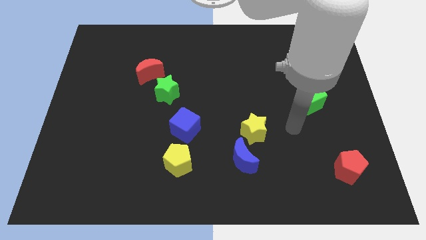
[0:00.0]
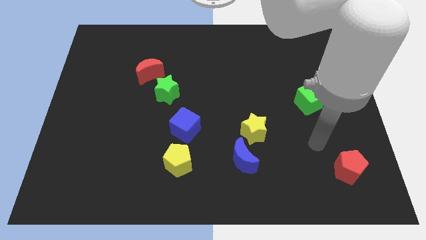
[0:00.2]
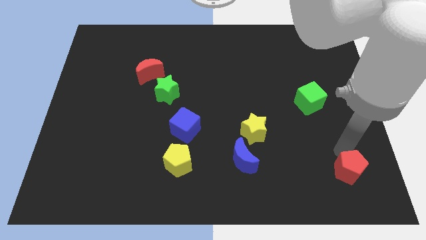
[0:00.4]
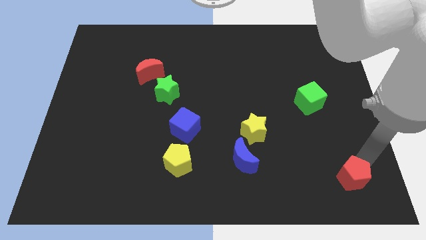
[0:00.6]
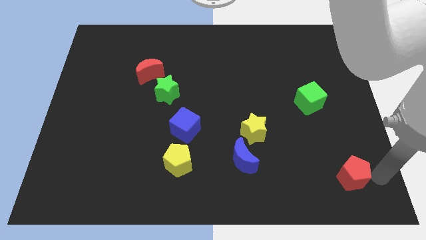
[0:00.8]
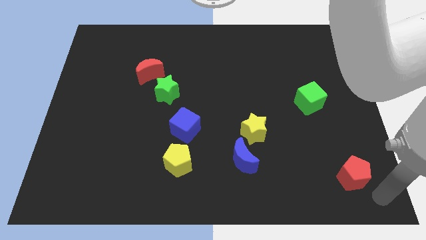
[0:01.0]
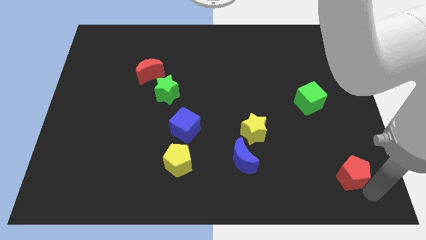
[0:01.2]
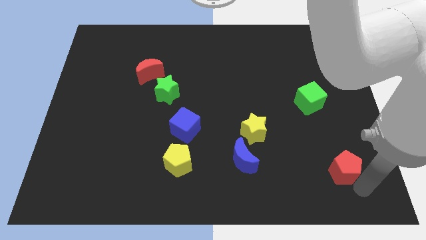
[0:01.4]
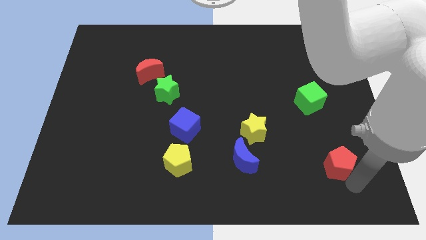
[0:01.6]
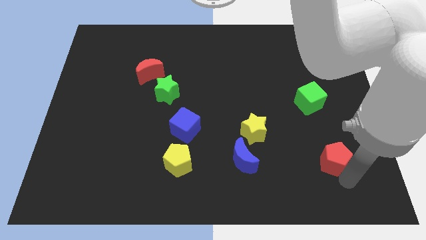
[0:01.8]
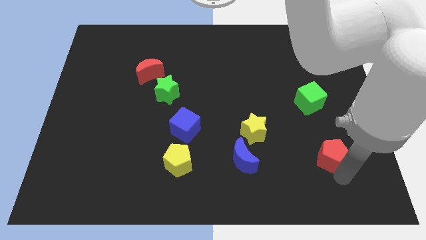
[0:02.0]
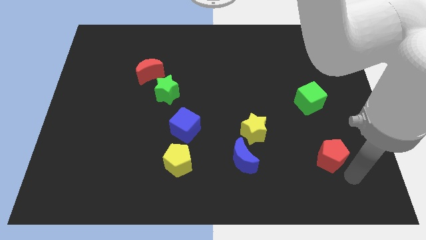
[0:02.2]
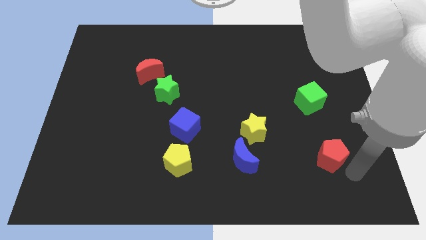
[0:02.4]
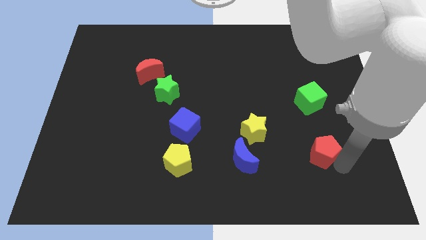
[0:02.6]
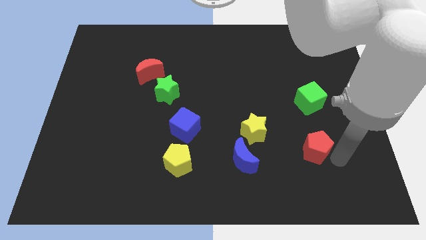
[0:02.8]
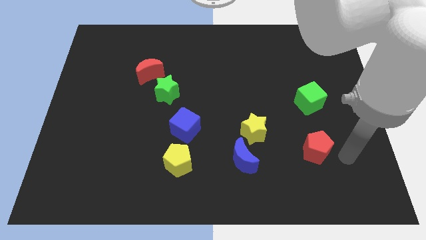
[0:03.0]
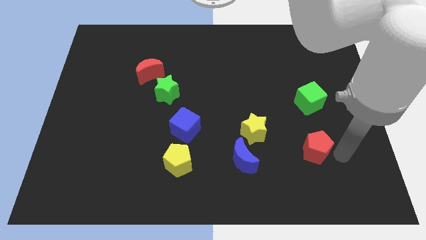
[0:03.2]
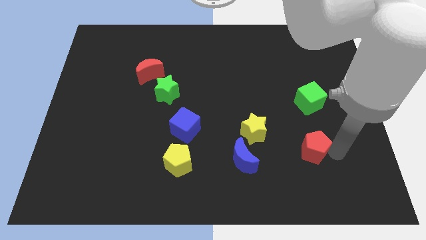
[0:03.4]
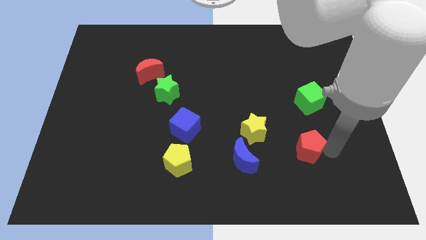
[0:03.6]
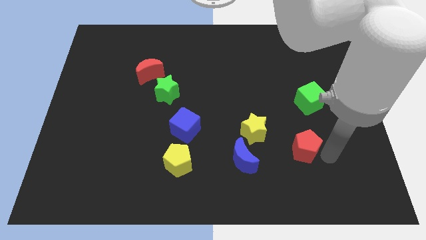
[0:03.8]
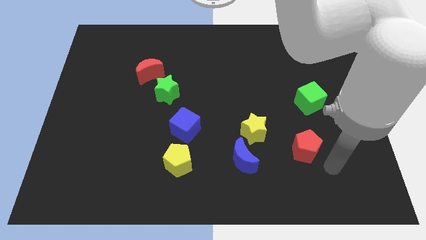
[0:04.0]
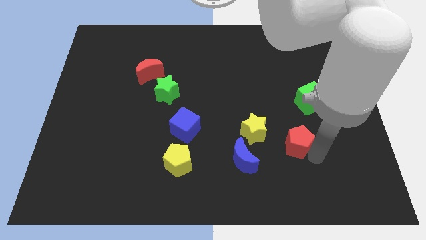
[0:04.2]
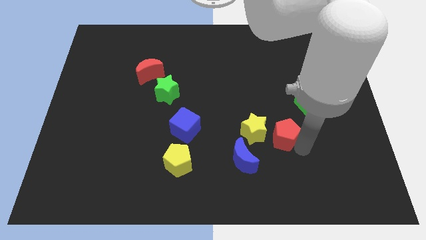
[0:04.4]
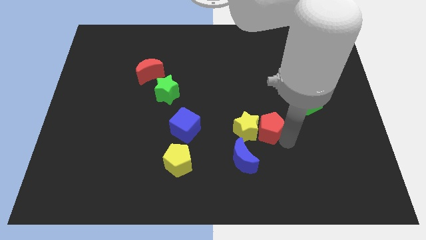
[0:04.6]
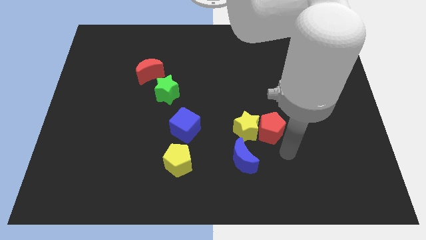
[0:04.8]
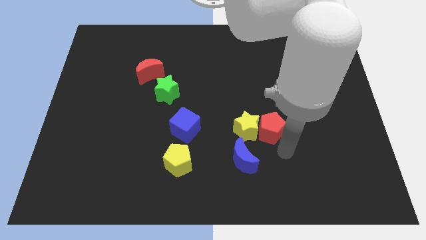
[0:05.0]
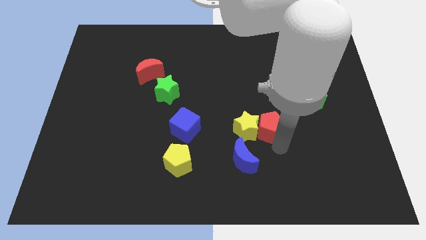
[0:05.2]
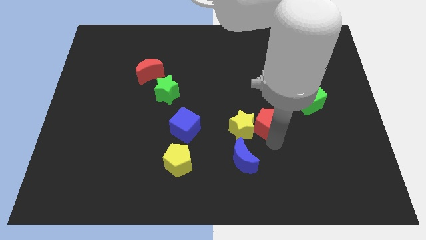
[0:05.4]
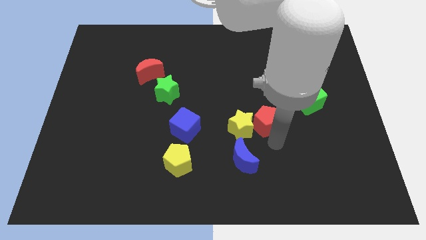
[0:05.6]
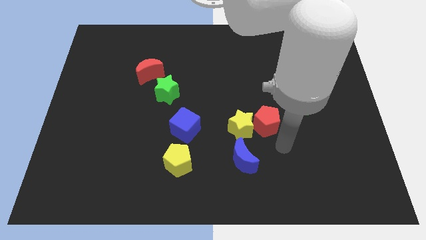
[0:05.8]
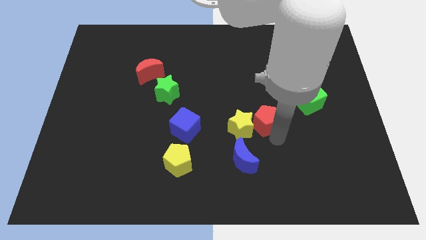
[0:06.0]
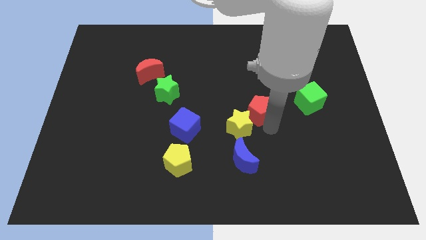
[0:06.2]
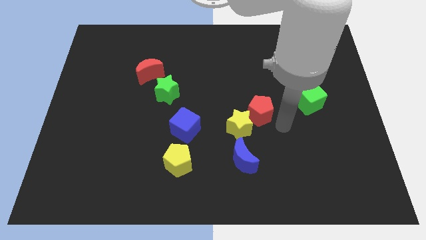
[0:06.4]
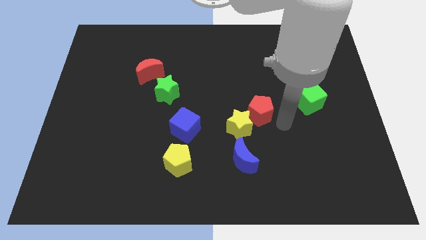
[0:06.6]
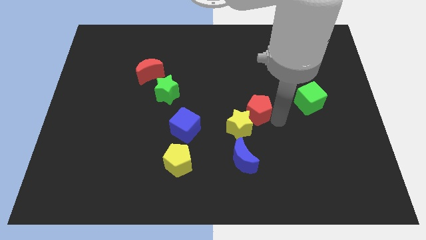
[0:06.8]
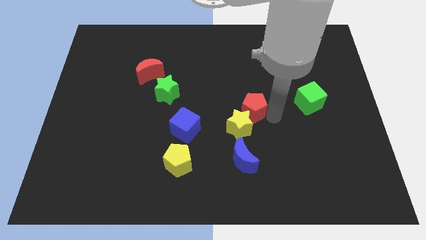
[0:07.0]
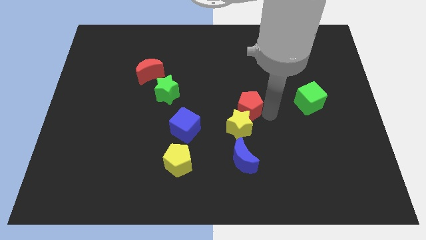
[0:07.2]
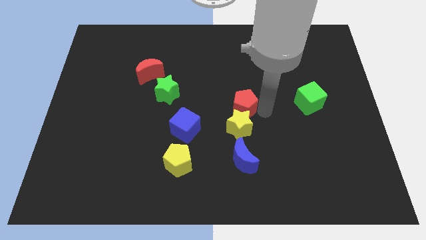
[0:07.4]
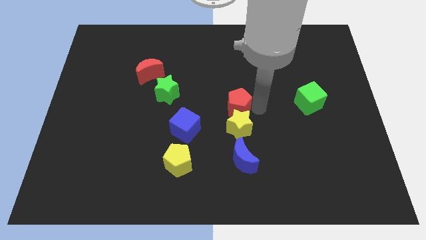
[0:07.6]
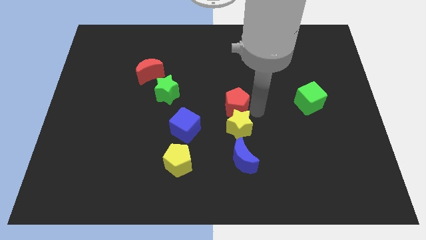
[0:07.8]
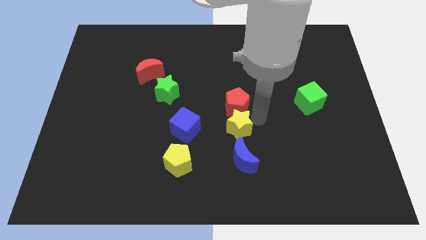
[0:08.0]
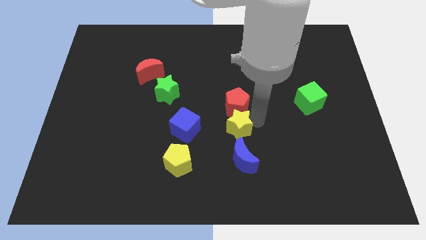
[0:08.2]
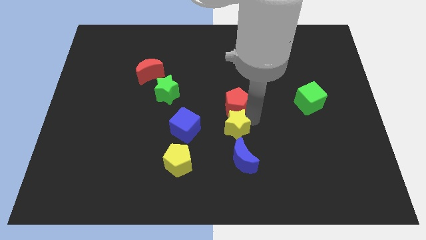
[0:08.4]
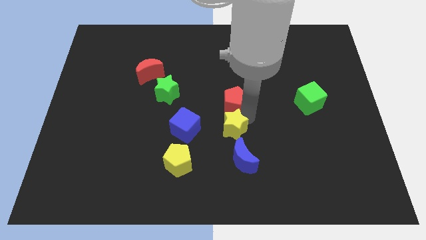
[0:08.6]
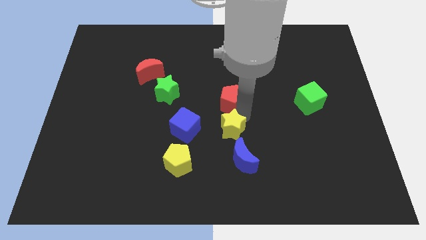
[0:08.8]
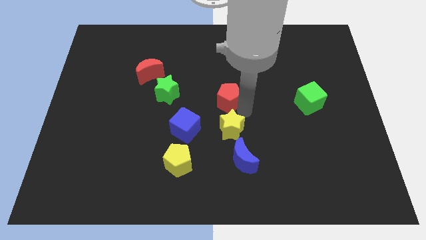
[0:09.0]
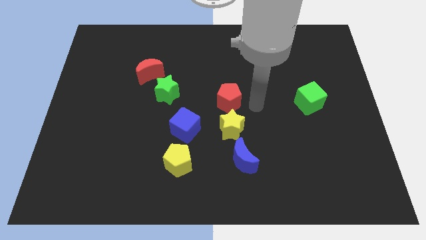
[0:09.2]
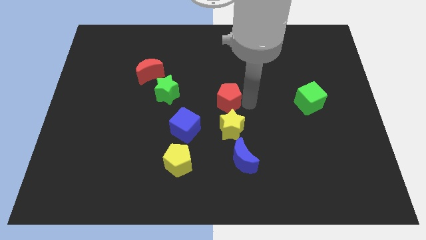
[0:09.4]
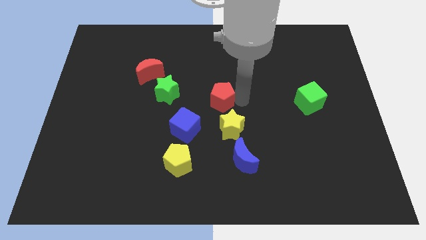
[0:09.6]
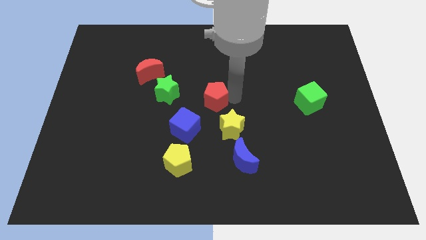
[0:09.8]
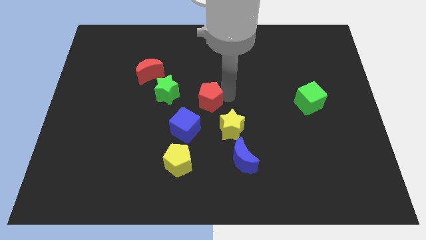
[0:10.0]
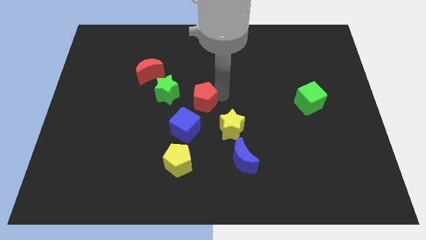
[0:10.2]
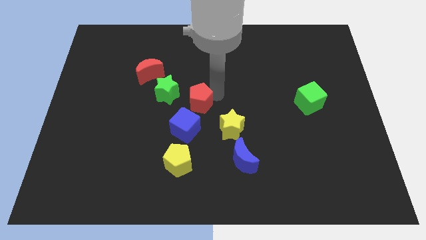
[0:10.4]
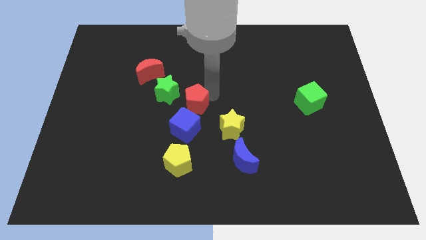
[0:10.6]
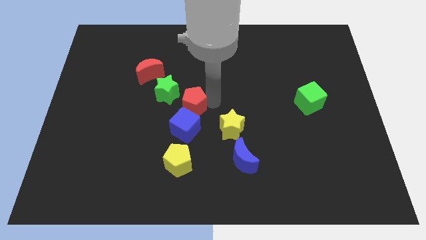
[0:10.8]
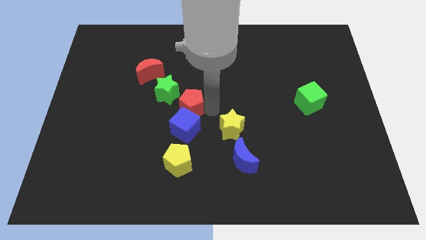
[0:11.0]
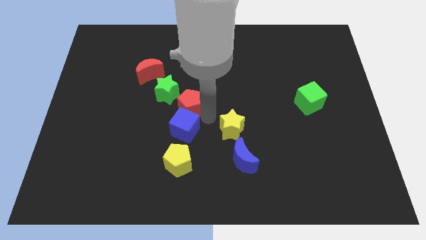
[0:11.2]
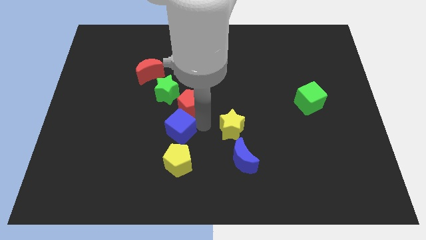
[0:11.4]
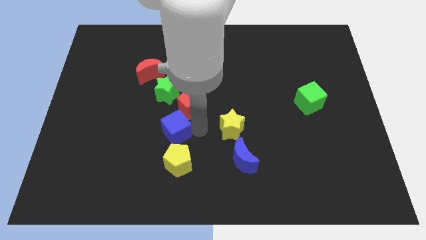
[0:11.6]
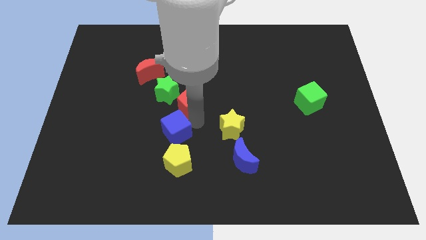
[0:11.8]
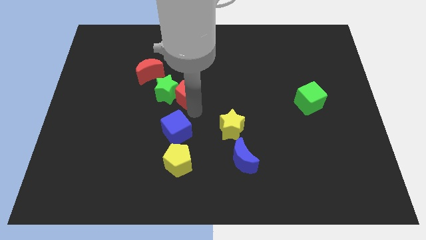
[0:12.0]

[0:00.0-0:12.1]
slide the red pentagon next to the green star
